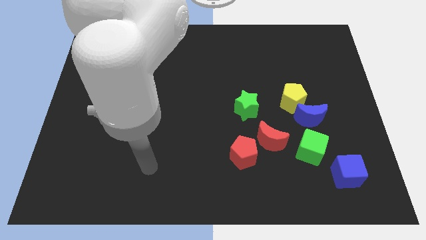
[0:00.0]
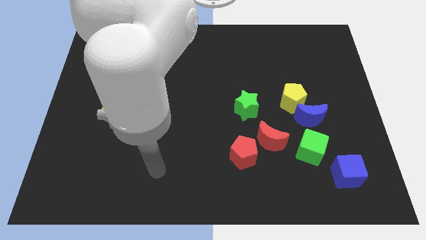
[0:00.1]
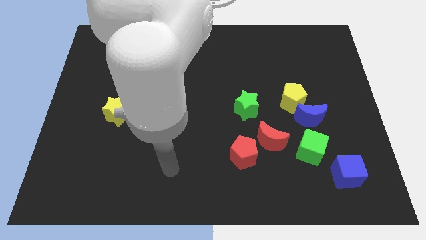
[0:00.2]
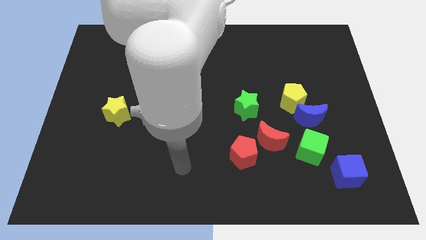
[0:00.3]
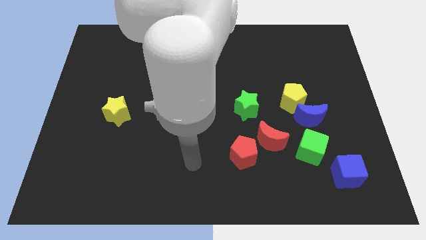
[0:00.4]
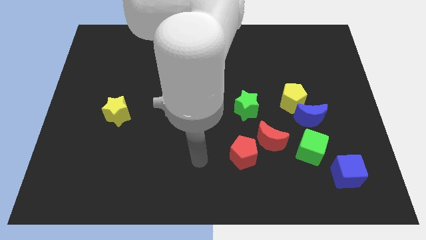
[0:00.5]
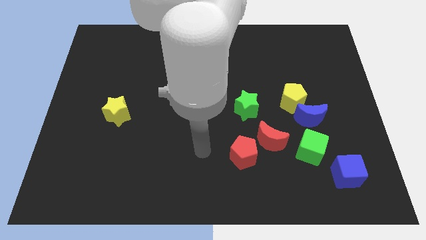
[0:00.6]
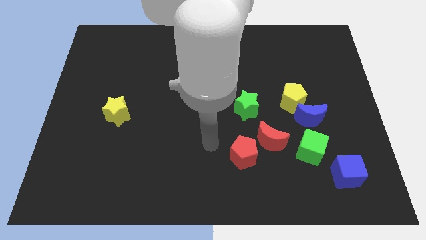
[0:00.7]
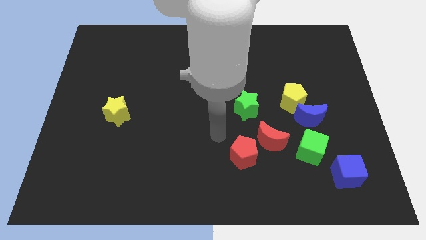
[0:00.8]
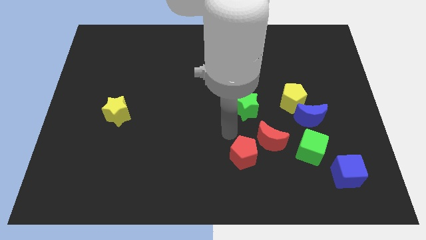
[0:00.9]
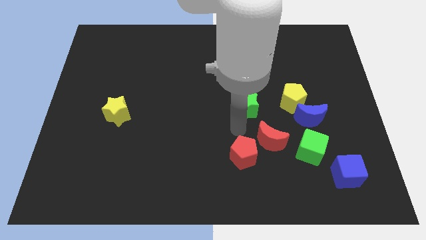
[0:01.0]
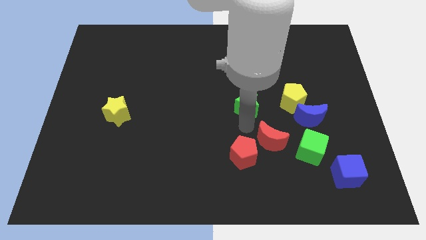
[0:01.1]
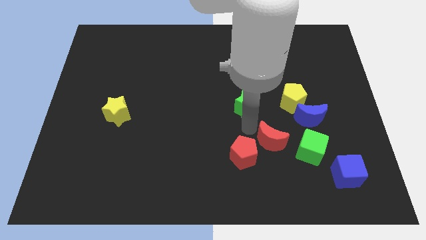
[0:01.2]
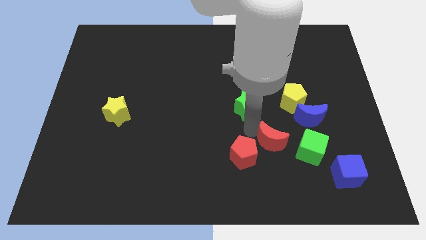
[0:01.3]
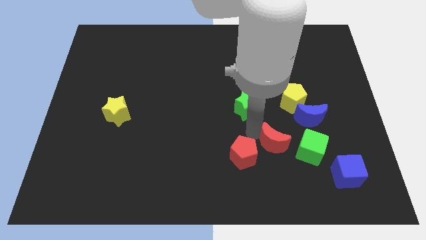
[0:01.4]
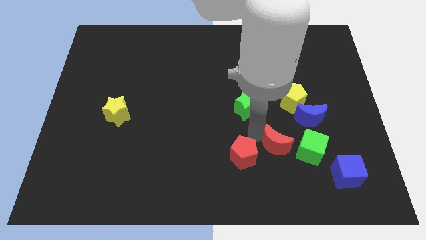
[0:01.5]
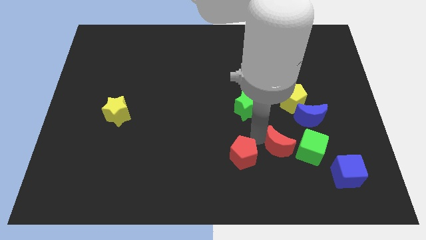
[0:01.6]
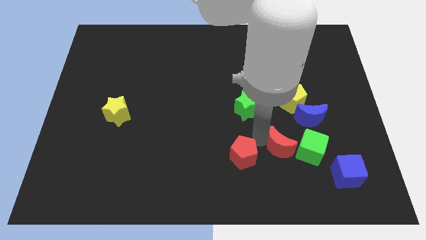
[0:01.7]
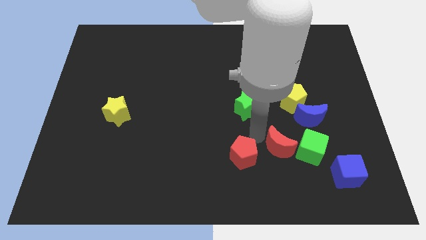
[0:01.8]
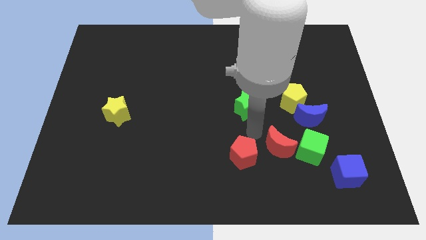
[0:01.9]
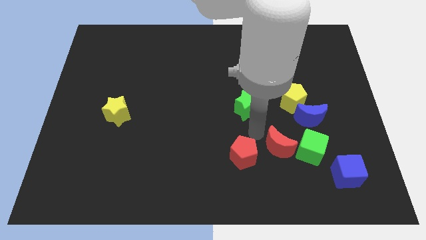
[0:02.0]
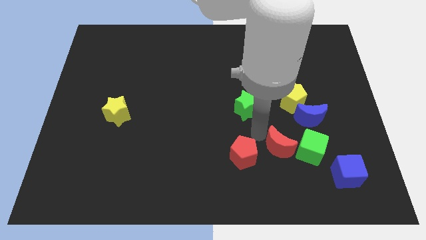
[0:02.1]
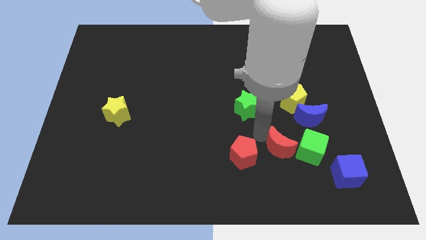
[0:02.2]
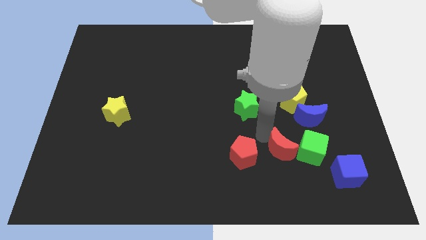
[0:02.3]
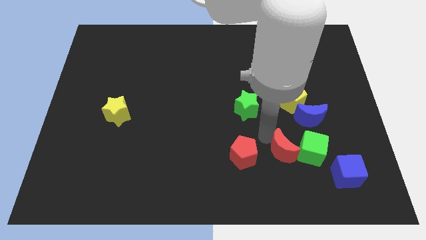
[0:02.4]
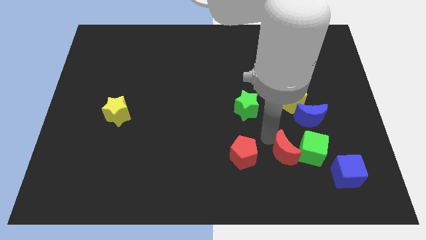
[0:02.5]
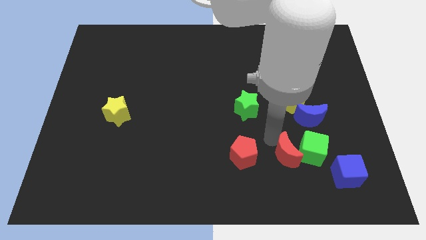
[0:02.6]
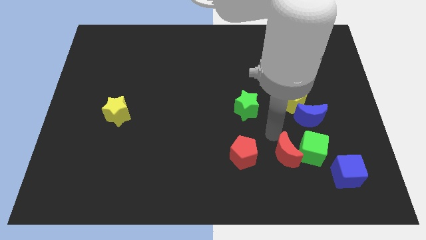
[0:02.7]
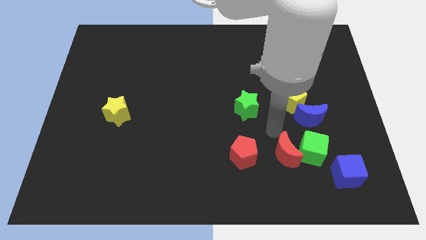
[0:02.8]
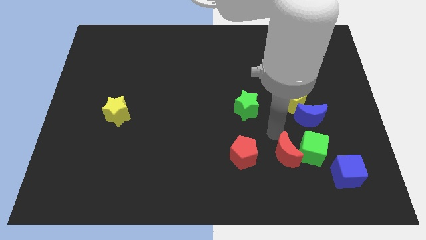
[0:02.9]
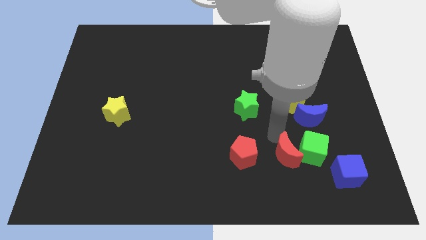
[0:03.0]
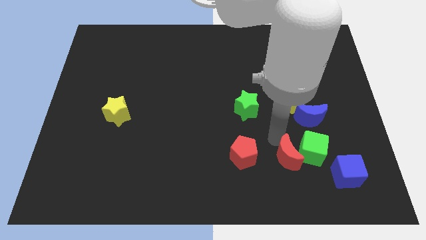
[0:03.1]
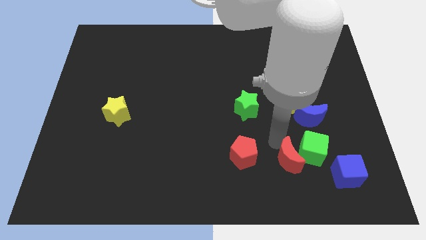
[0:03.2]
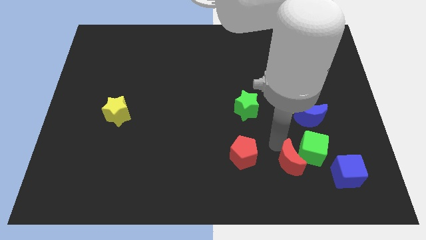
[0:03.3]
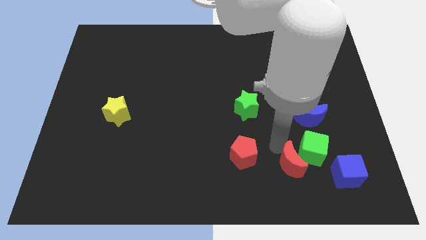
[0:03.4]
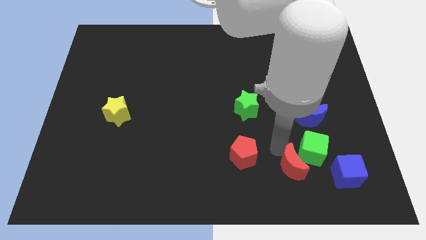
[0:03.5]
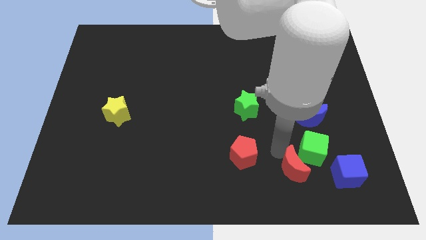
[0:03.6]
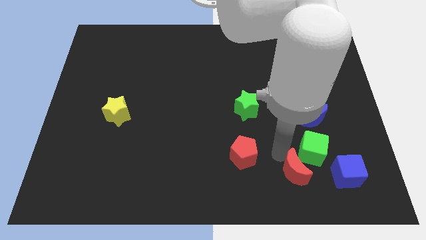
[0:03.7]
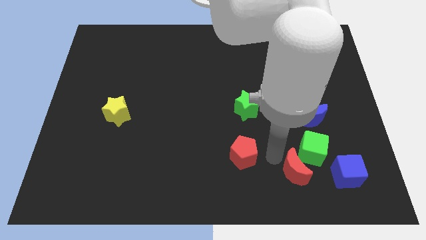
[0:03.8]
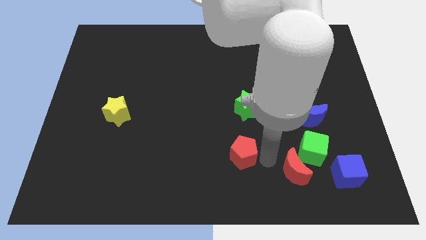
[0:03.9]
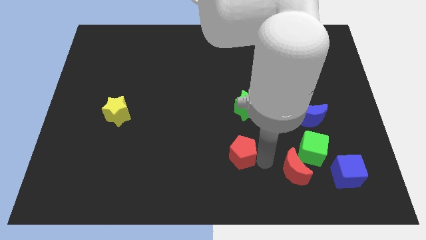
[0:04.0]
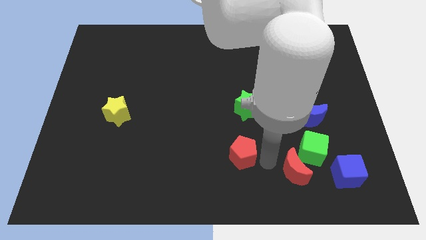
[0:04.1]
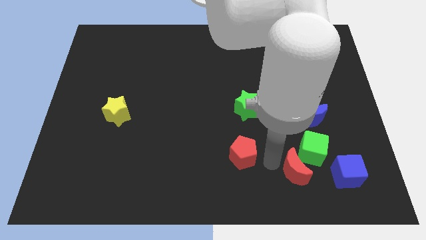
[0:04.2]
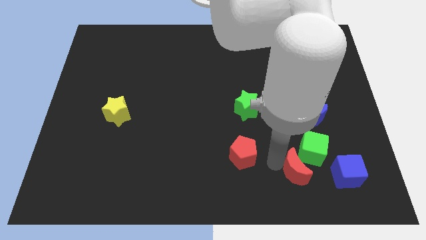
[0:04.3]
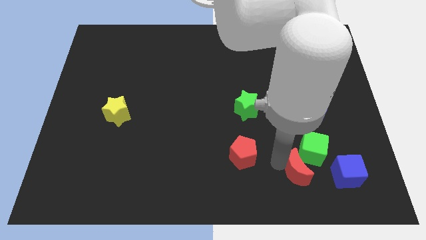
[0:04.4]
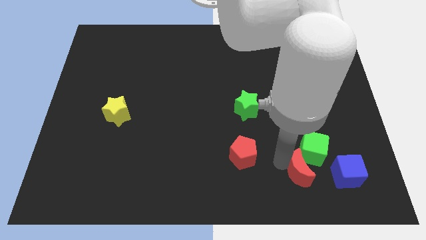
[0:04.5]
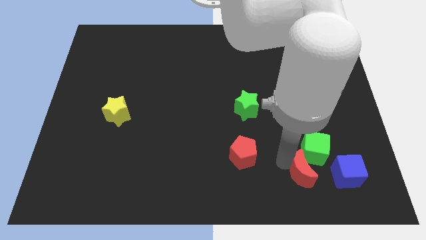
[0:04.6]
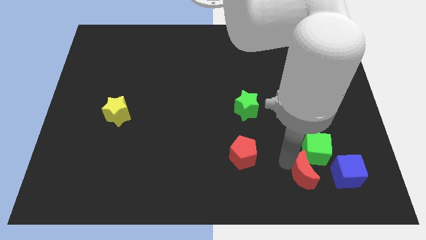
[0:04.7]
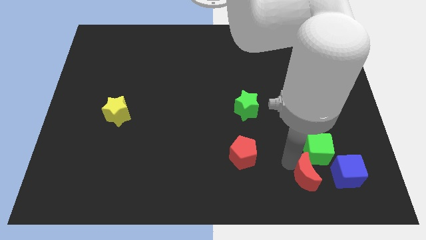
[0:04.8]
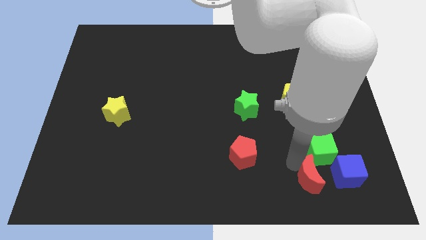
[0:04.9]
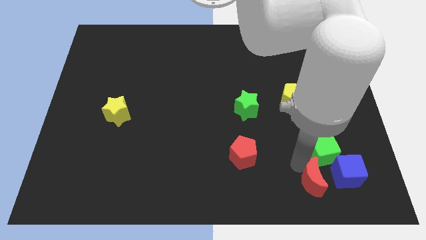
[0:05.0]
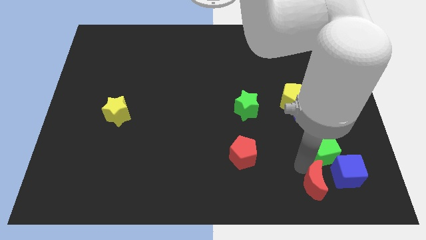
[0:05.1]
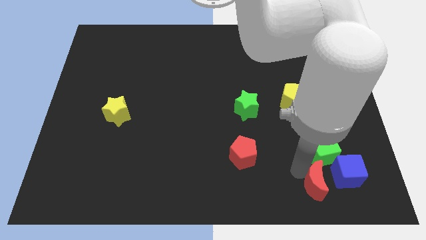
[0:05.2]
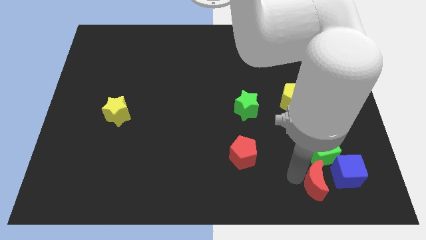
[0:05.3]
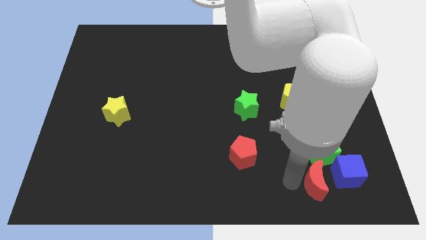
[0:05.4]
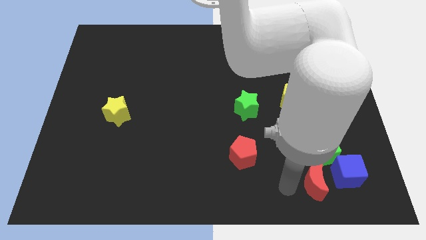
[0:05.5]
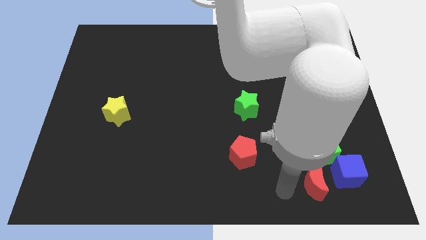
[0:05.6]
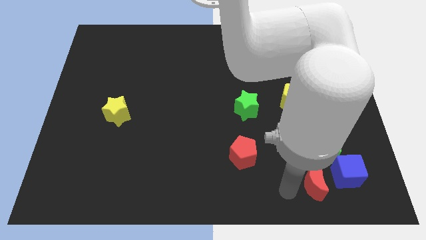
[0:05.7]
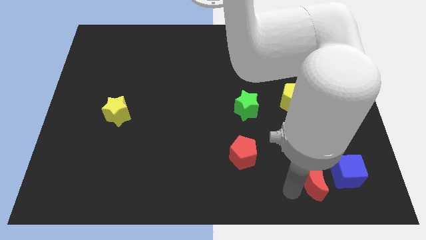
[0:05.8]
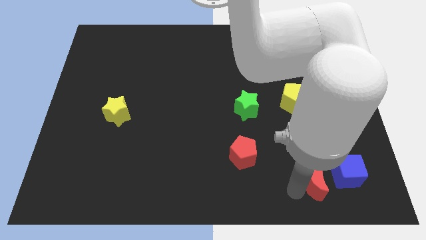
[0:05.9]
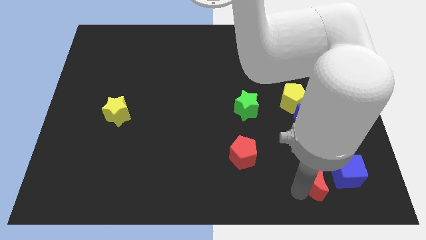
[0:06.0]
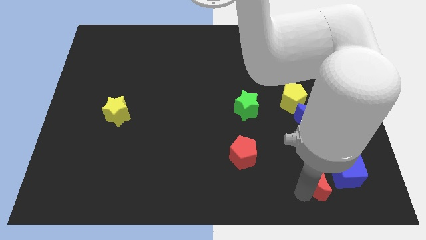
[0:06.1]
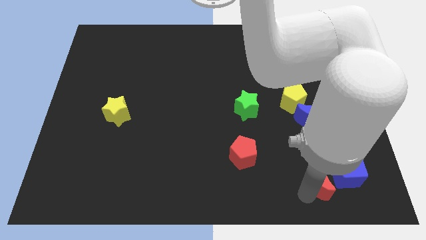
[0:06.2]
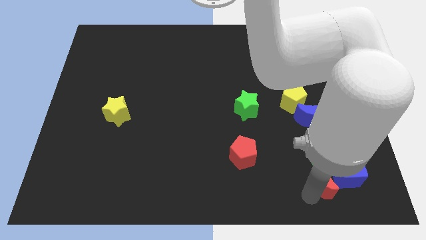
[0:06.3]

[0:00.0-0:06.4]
move the red moon next to the blue cube

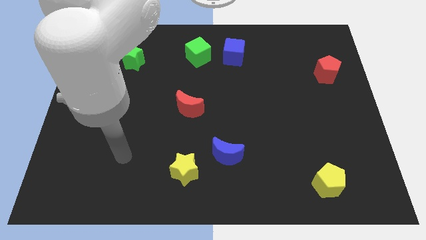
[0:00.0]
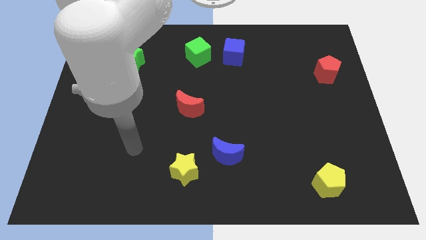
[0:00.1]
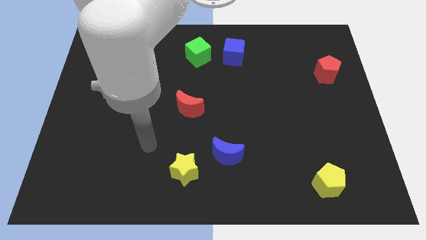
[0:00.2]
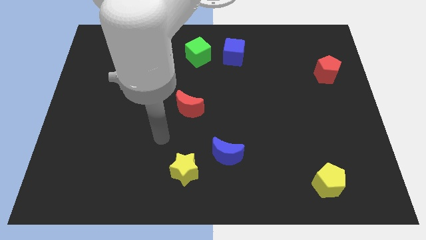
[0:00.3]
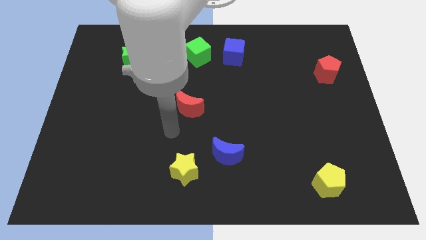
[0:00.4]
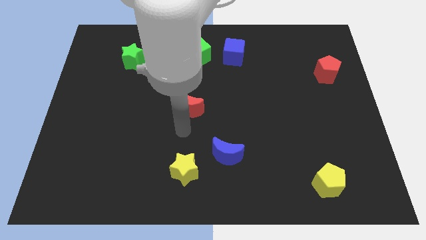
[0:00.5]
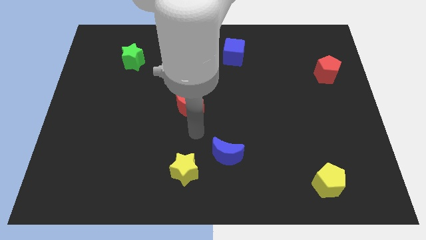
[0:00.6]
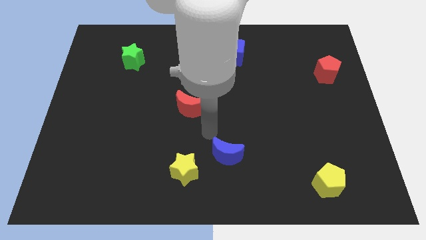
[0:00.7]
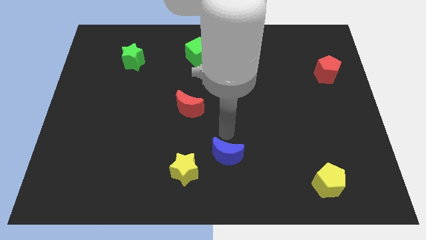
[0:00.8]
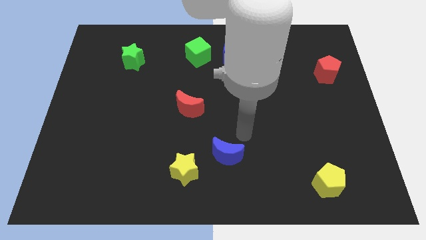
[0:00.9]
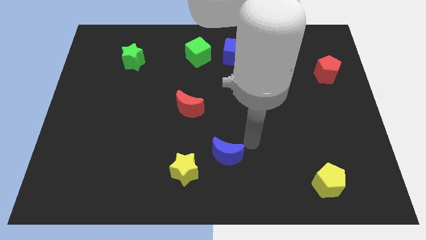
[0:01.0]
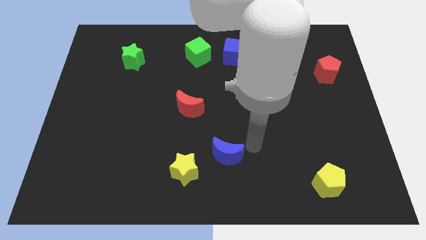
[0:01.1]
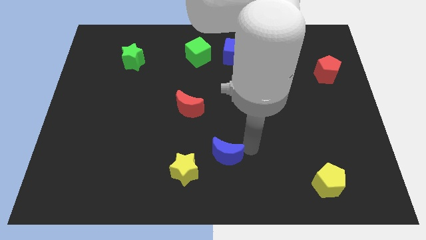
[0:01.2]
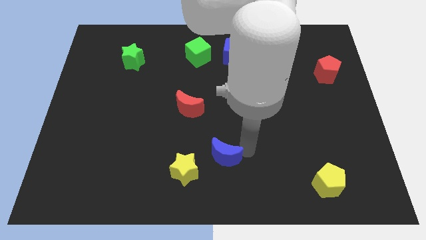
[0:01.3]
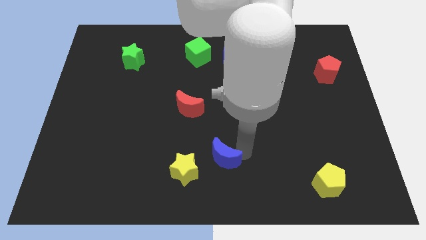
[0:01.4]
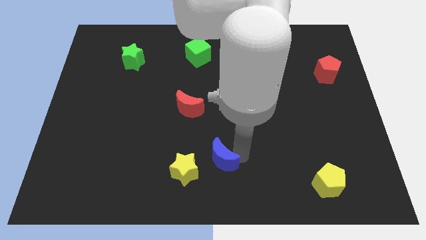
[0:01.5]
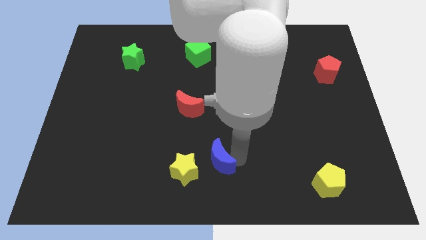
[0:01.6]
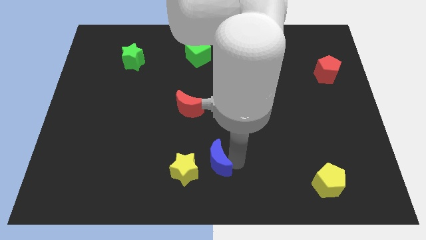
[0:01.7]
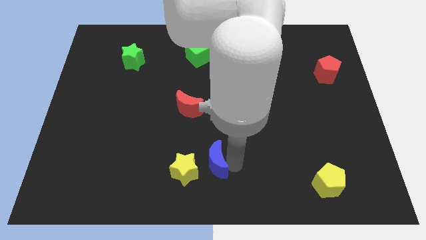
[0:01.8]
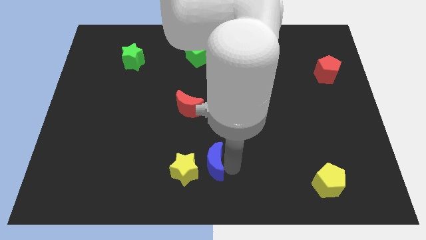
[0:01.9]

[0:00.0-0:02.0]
slide the blue moon to the yellow star
